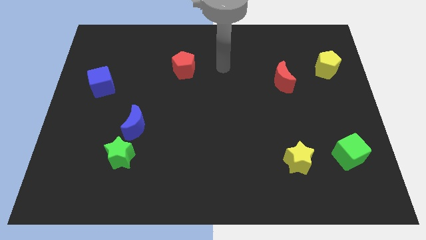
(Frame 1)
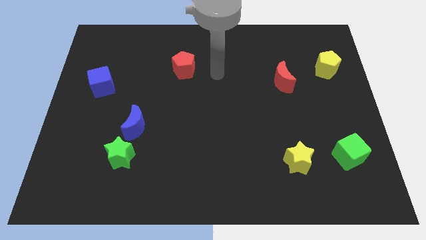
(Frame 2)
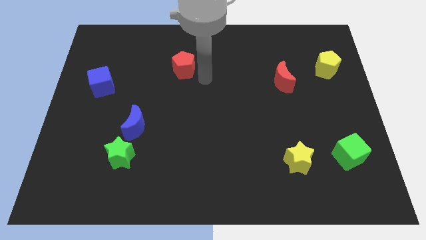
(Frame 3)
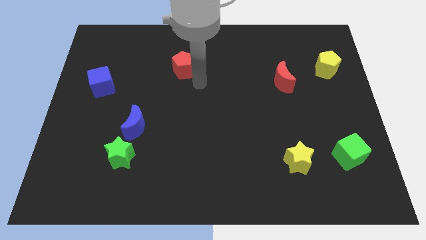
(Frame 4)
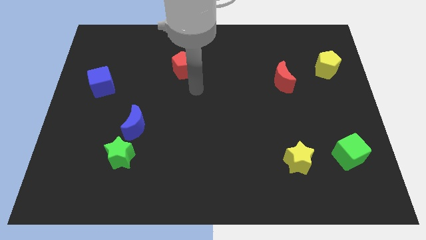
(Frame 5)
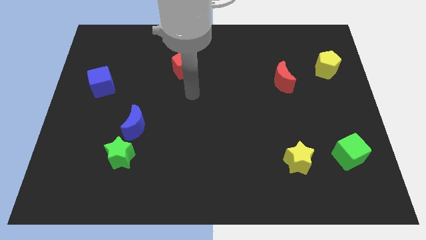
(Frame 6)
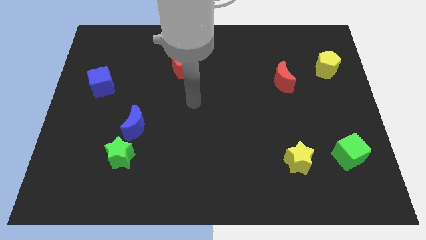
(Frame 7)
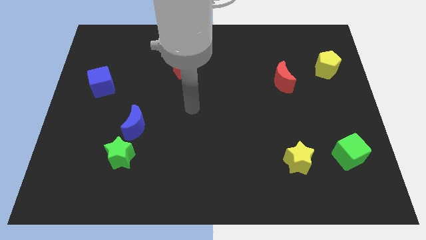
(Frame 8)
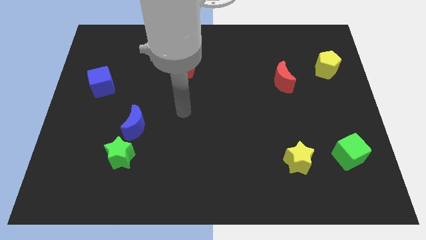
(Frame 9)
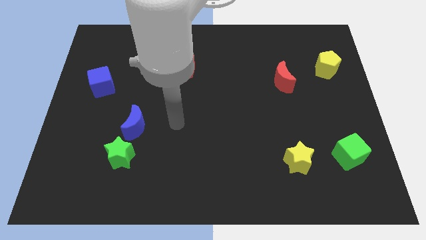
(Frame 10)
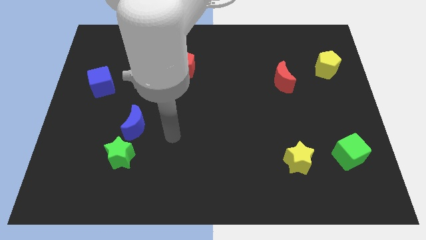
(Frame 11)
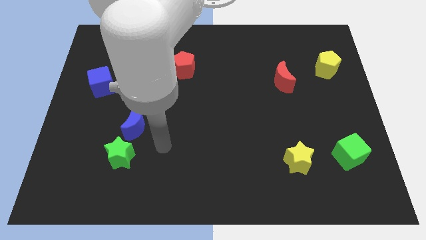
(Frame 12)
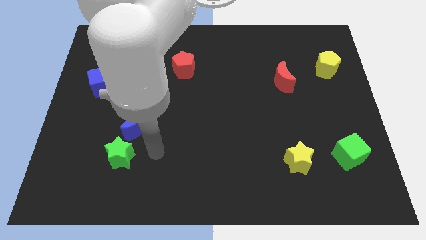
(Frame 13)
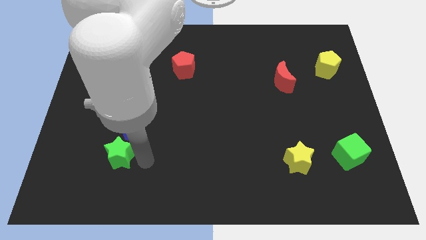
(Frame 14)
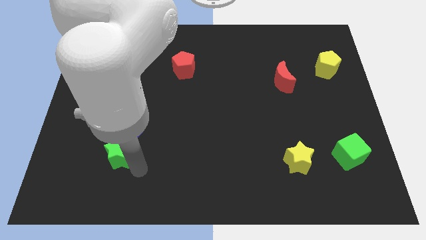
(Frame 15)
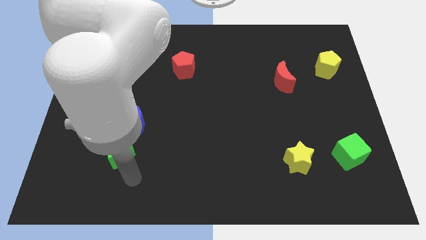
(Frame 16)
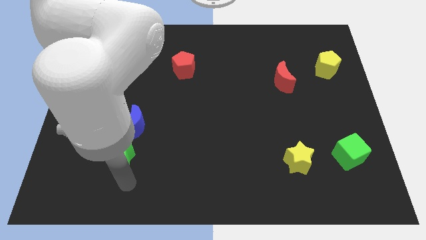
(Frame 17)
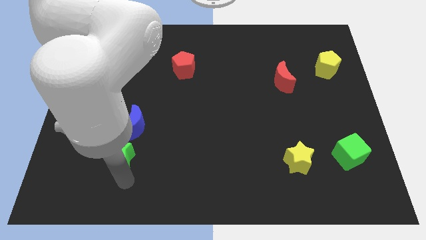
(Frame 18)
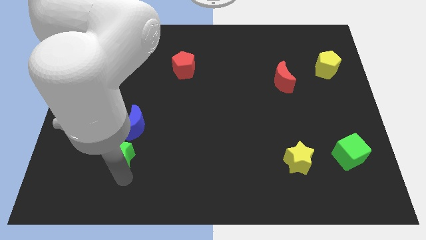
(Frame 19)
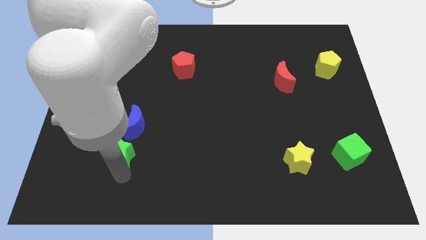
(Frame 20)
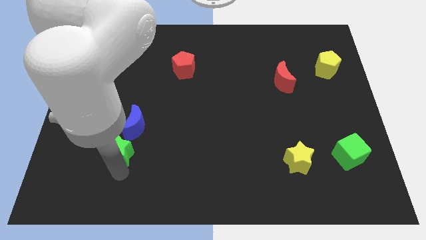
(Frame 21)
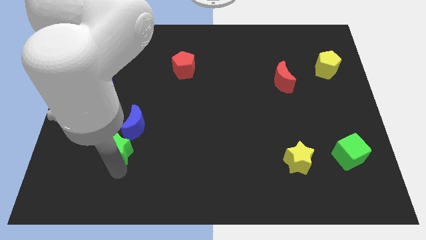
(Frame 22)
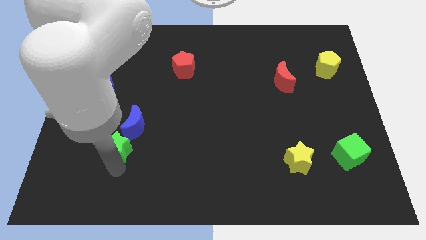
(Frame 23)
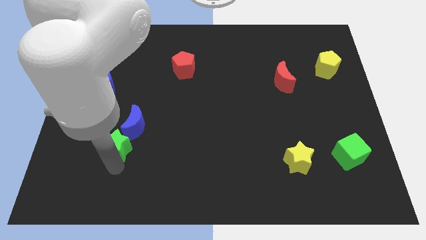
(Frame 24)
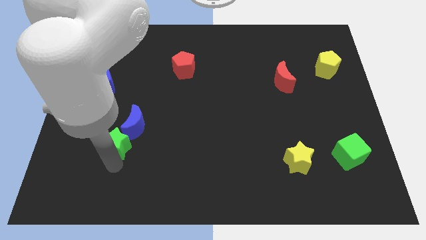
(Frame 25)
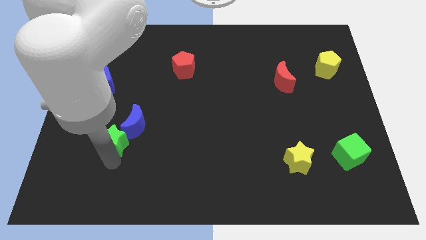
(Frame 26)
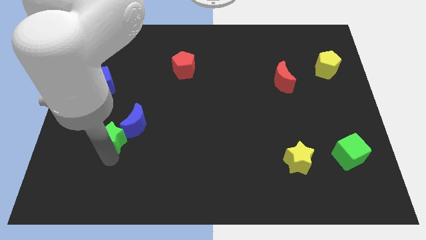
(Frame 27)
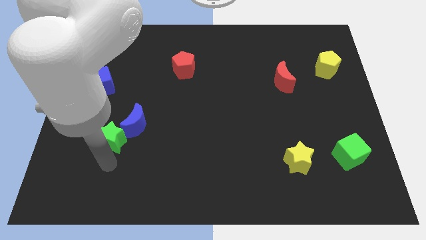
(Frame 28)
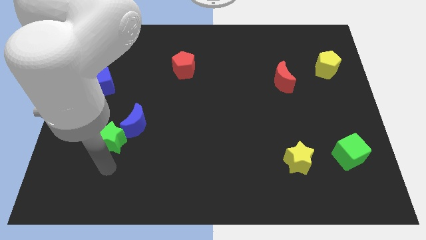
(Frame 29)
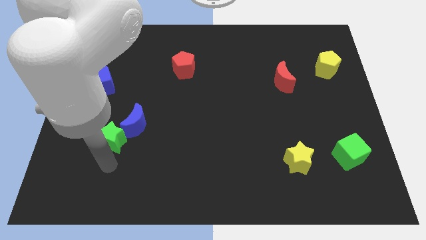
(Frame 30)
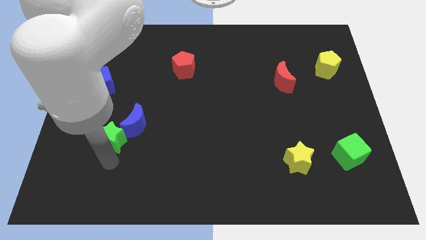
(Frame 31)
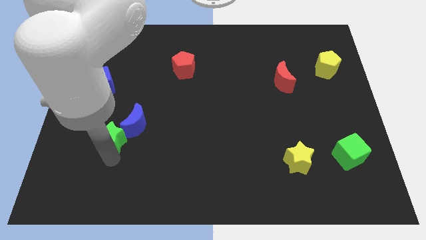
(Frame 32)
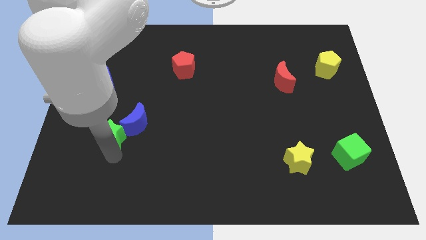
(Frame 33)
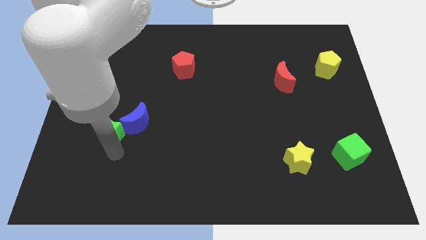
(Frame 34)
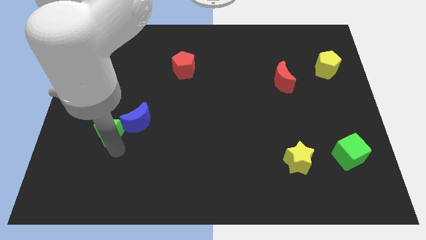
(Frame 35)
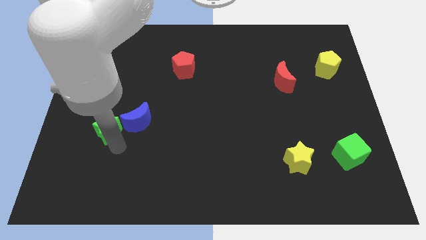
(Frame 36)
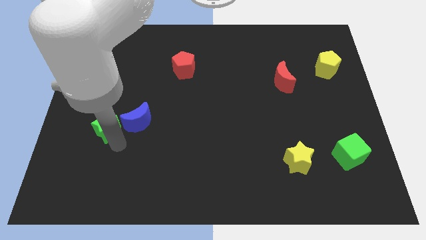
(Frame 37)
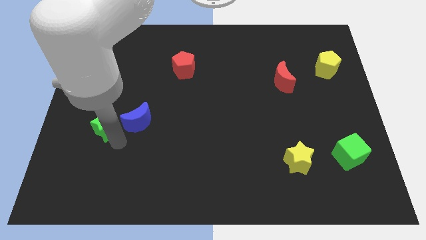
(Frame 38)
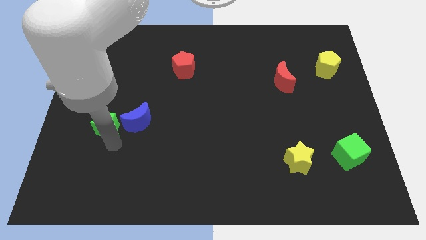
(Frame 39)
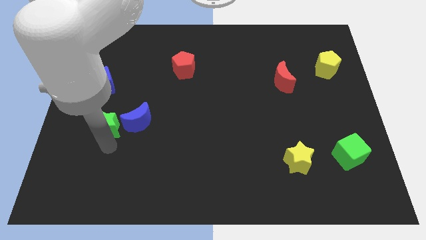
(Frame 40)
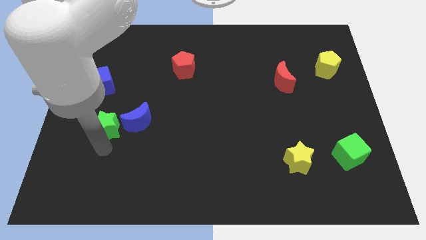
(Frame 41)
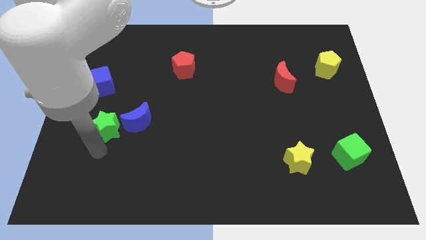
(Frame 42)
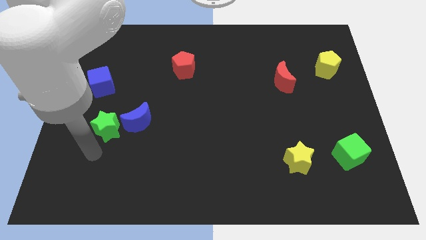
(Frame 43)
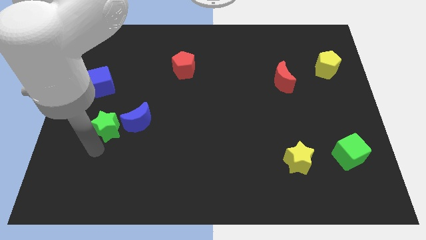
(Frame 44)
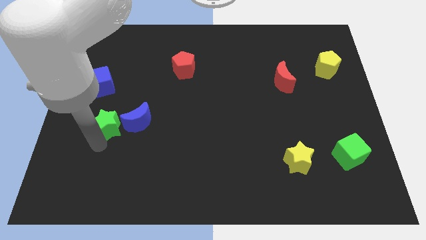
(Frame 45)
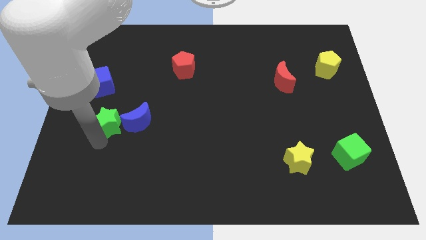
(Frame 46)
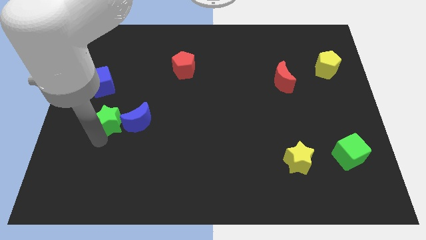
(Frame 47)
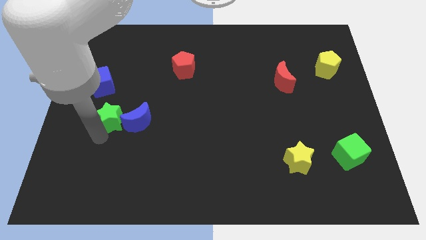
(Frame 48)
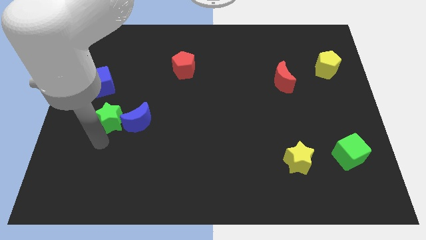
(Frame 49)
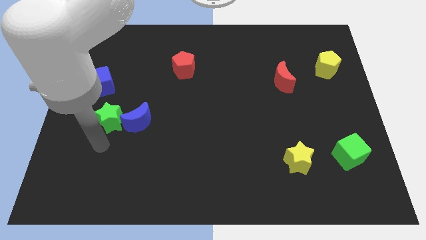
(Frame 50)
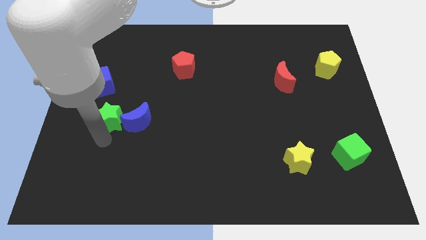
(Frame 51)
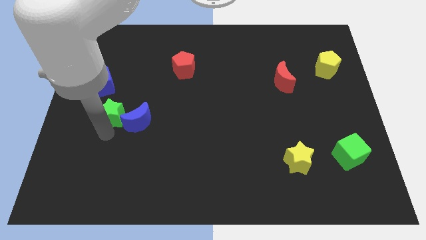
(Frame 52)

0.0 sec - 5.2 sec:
slide the green star to the bottom right side of the blue cube

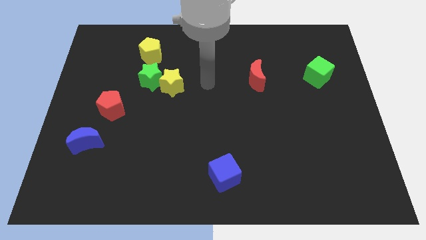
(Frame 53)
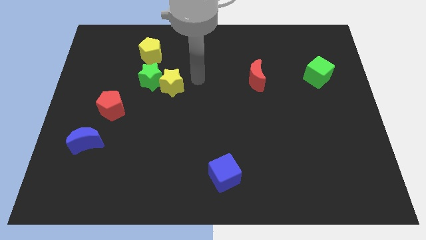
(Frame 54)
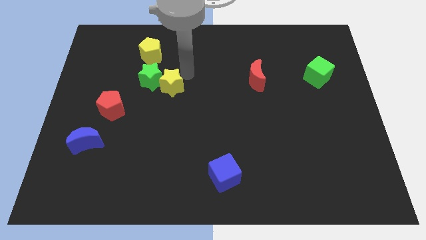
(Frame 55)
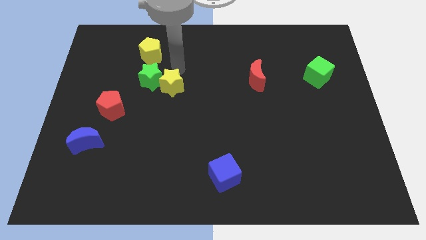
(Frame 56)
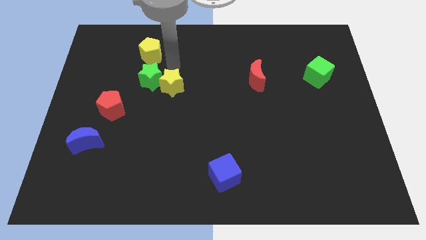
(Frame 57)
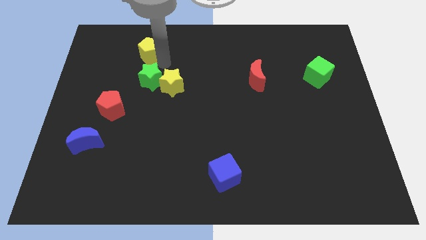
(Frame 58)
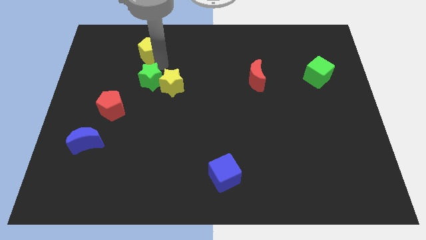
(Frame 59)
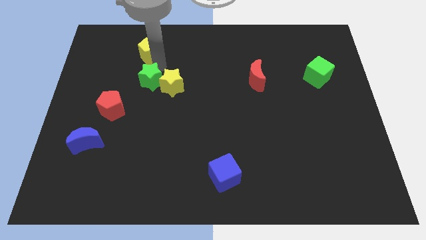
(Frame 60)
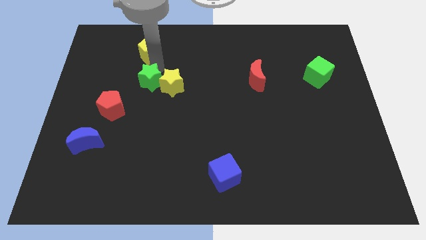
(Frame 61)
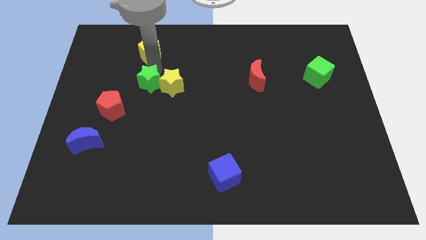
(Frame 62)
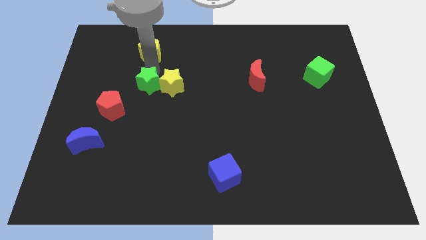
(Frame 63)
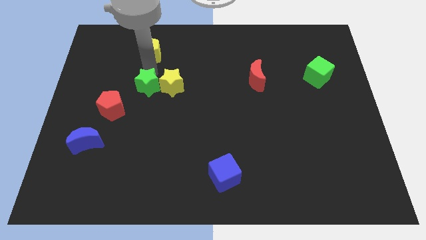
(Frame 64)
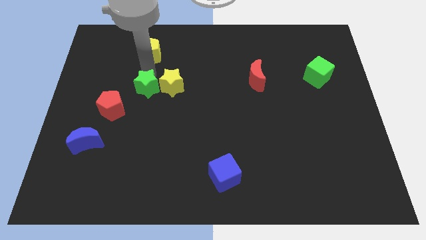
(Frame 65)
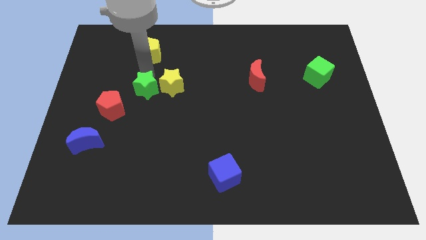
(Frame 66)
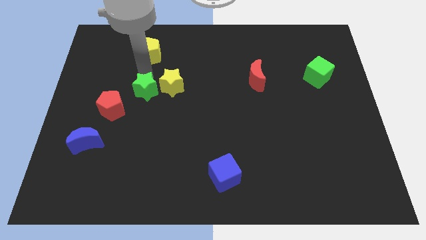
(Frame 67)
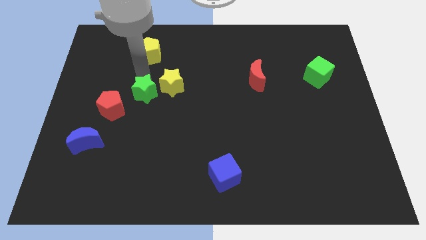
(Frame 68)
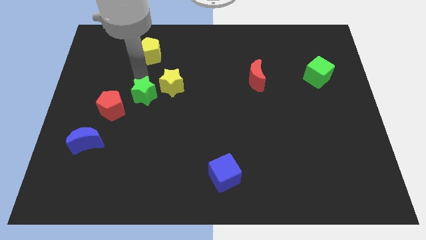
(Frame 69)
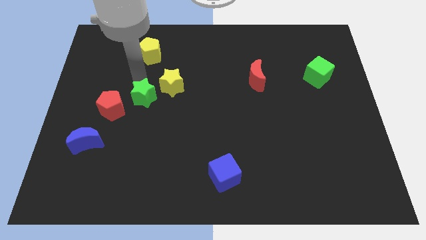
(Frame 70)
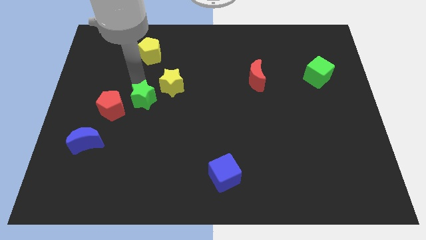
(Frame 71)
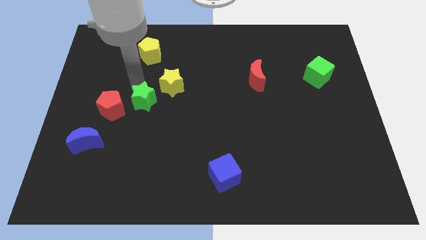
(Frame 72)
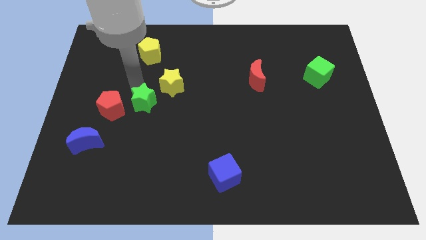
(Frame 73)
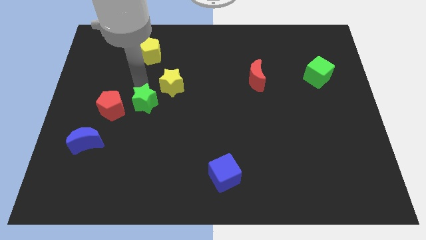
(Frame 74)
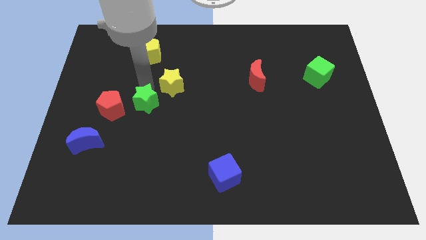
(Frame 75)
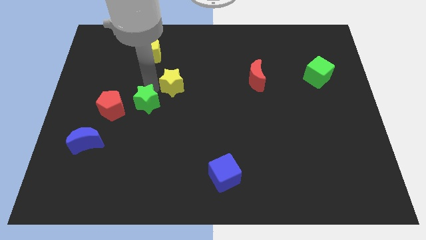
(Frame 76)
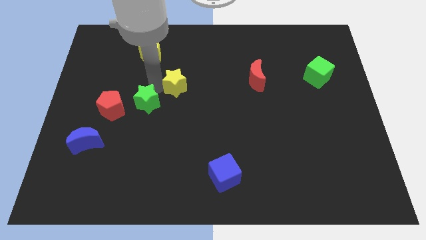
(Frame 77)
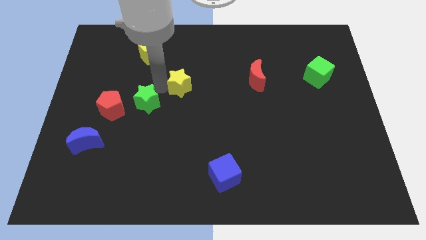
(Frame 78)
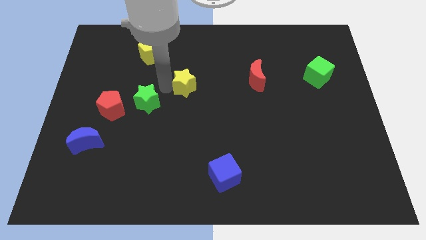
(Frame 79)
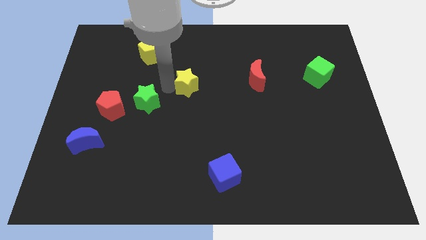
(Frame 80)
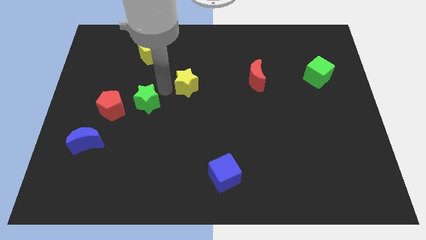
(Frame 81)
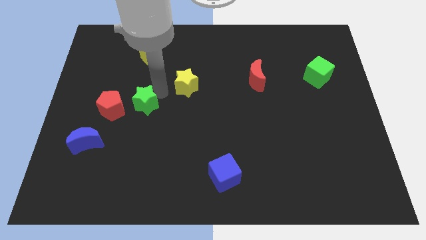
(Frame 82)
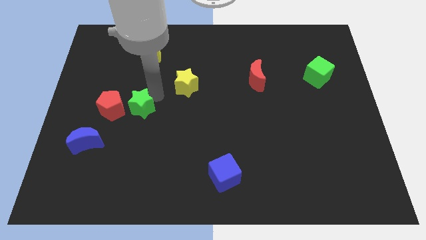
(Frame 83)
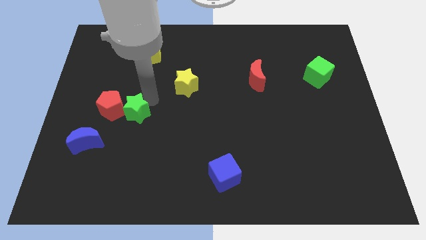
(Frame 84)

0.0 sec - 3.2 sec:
move the green star to the top right side of the blue moon
